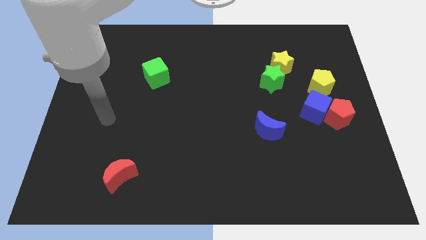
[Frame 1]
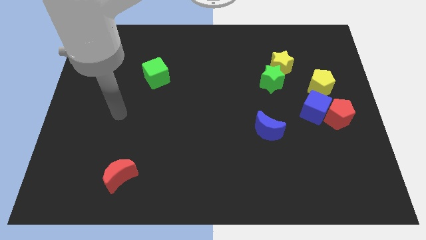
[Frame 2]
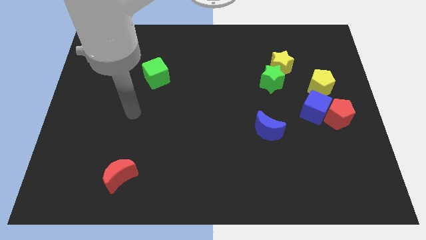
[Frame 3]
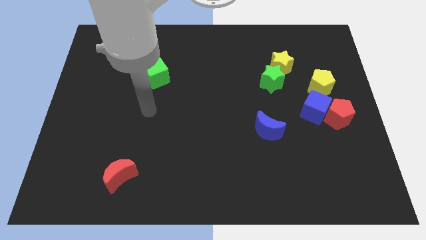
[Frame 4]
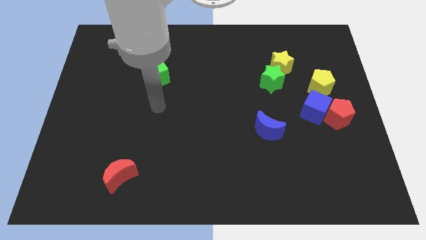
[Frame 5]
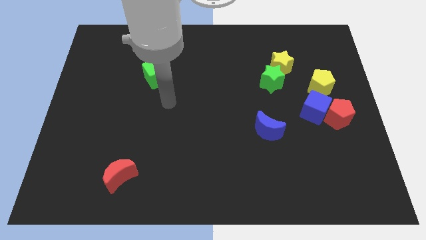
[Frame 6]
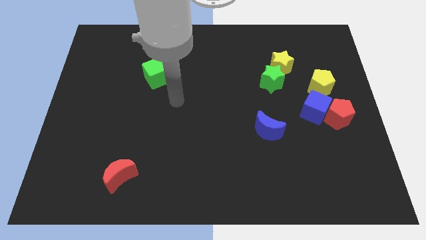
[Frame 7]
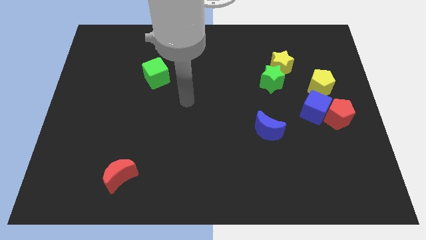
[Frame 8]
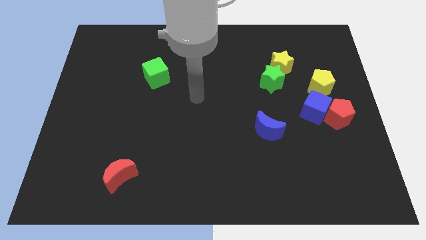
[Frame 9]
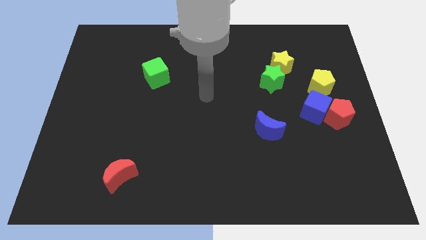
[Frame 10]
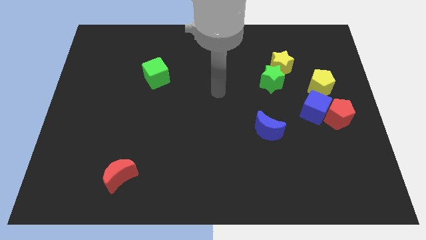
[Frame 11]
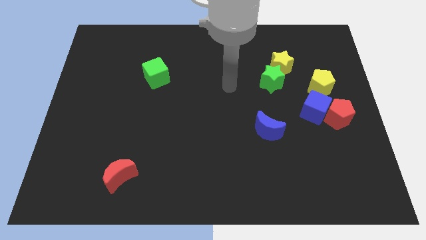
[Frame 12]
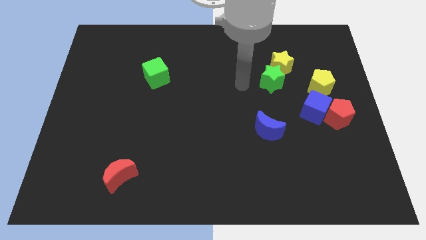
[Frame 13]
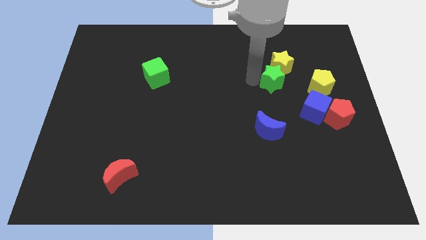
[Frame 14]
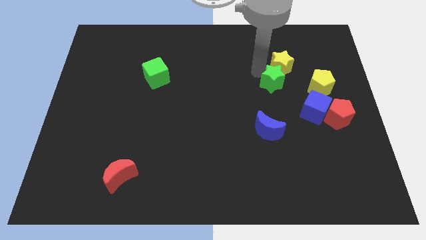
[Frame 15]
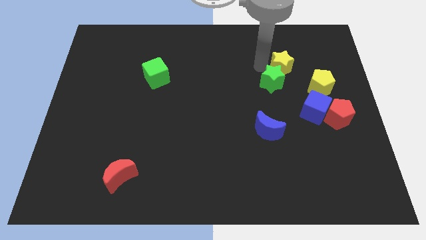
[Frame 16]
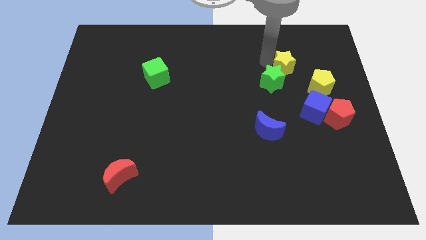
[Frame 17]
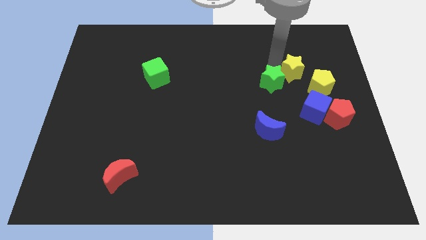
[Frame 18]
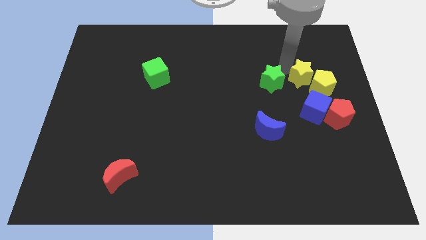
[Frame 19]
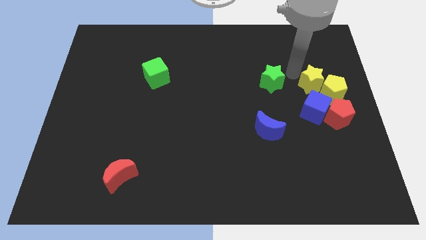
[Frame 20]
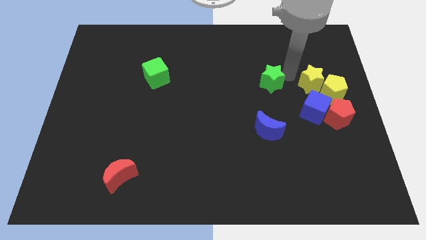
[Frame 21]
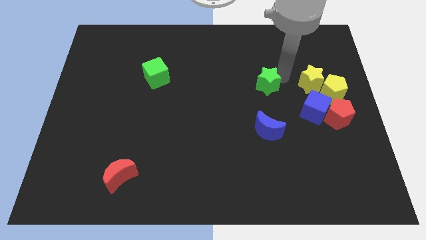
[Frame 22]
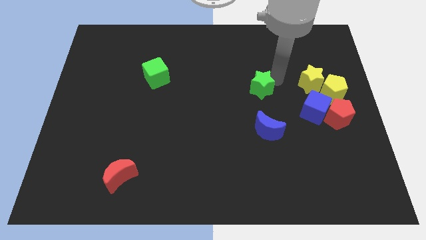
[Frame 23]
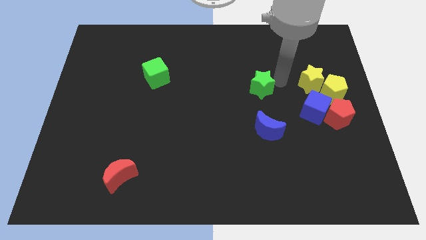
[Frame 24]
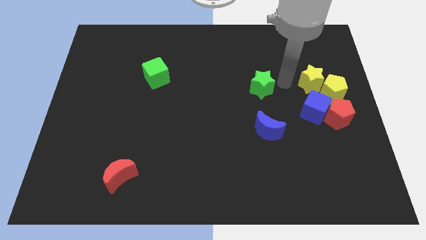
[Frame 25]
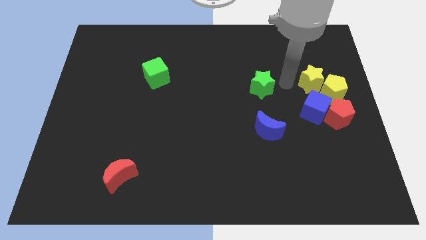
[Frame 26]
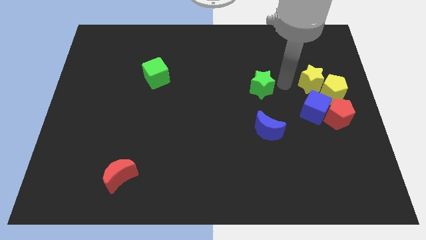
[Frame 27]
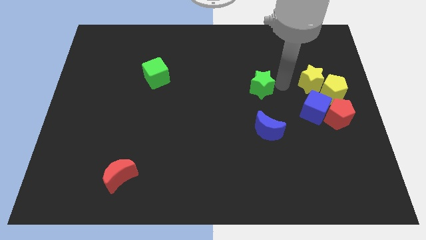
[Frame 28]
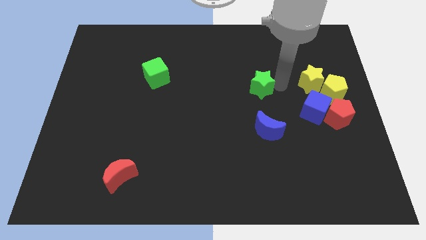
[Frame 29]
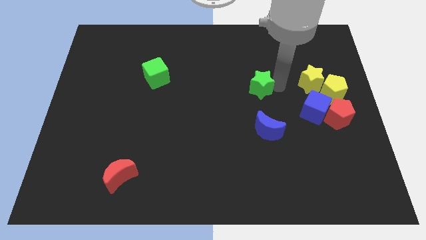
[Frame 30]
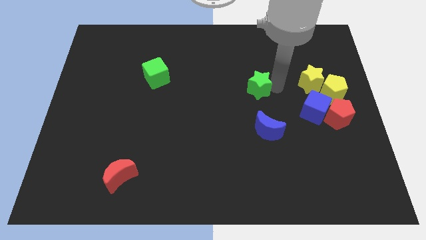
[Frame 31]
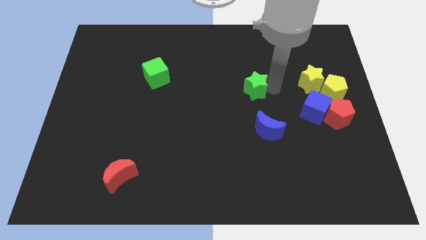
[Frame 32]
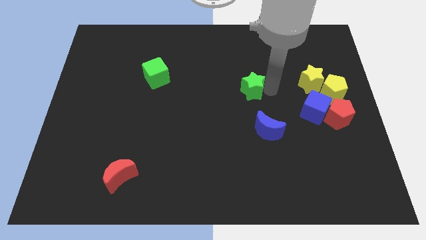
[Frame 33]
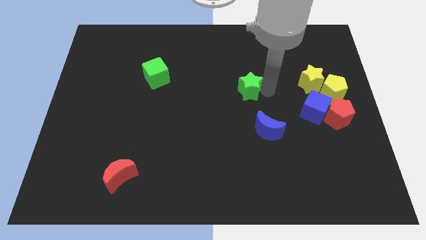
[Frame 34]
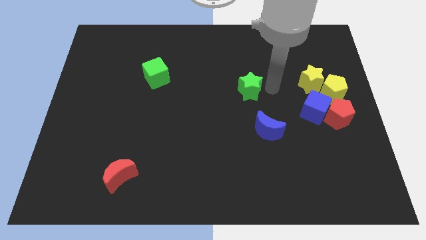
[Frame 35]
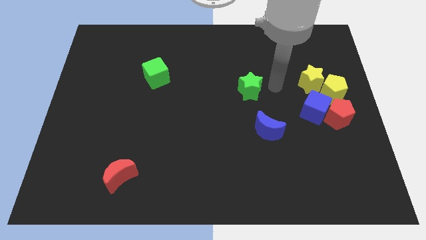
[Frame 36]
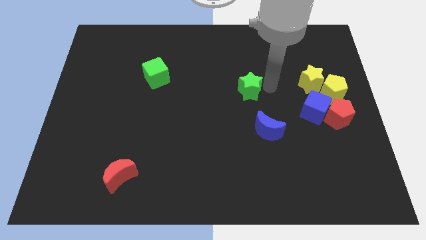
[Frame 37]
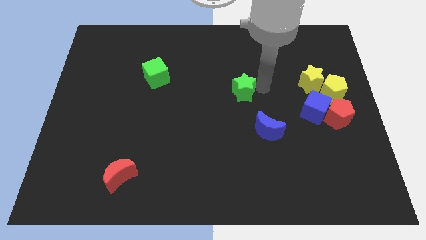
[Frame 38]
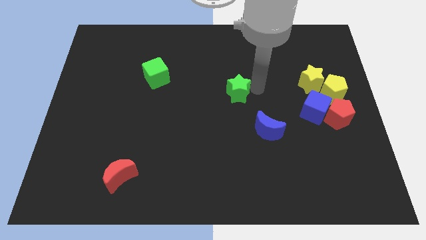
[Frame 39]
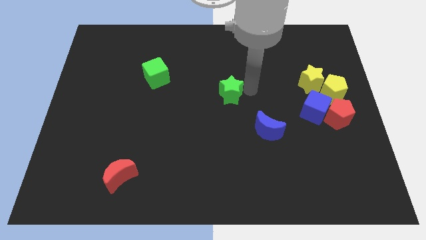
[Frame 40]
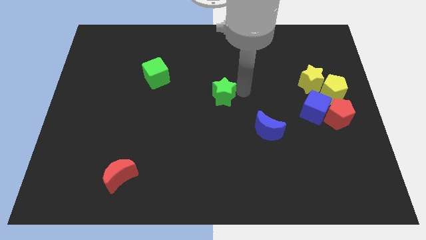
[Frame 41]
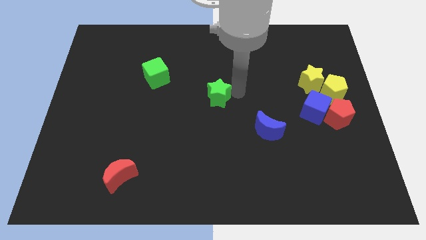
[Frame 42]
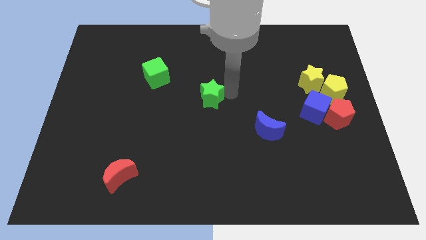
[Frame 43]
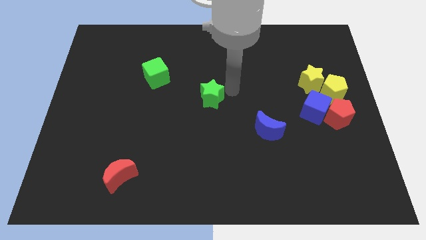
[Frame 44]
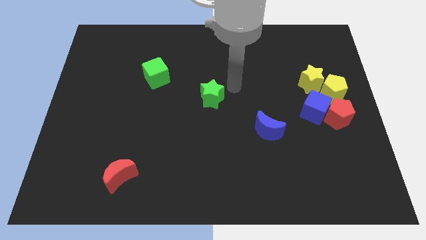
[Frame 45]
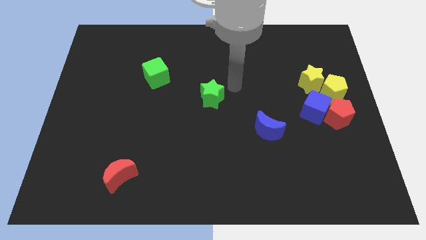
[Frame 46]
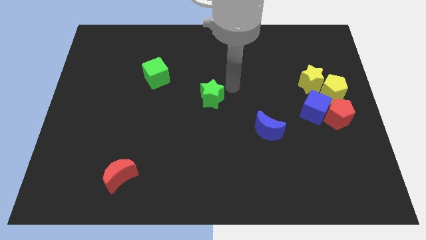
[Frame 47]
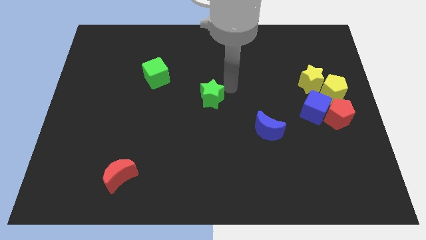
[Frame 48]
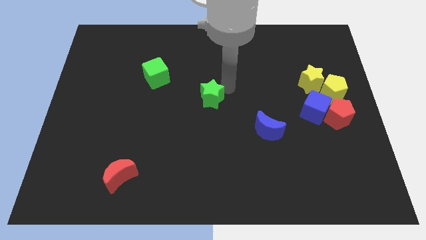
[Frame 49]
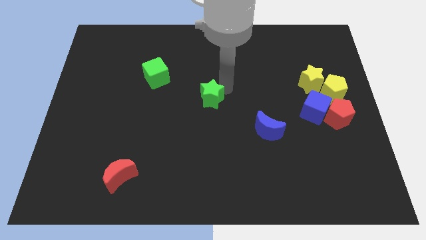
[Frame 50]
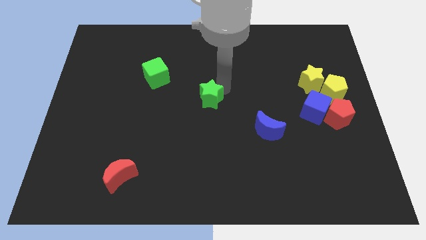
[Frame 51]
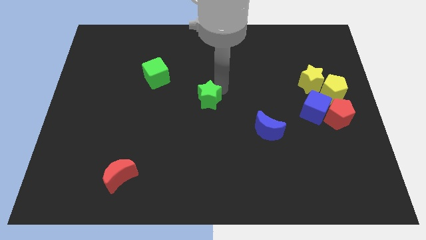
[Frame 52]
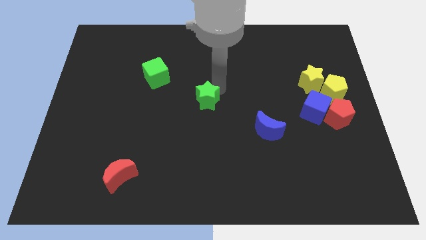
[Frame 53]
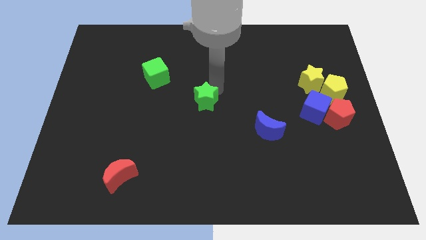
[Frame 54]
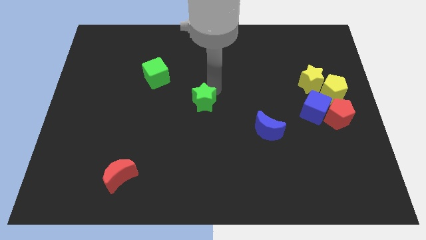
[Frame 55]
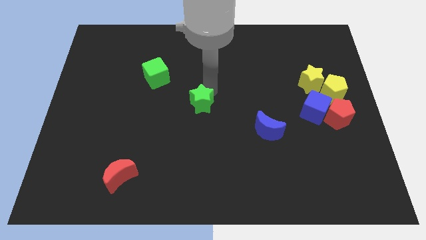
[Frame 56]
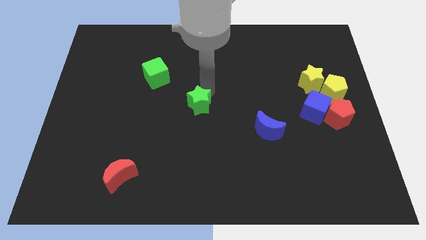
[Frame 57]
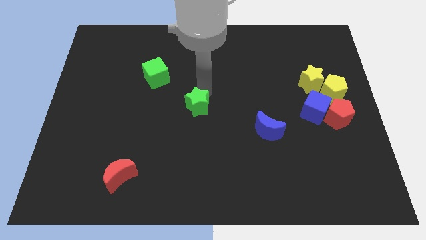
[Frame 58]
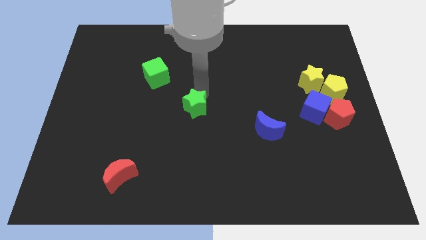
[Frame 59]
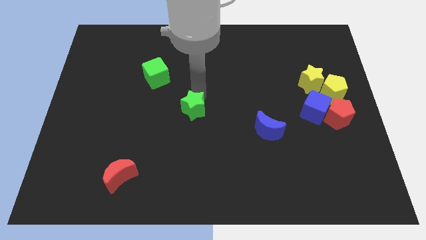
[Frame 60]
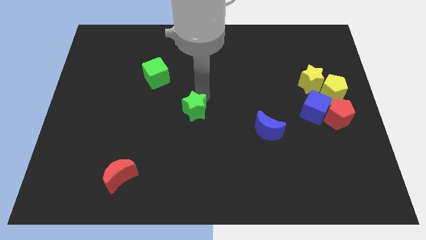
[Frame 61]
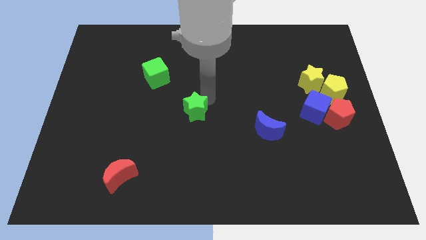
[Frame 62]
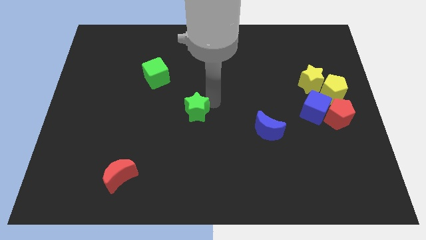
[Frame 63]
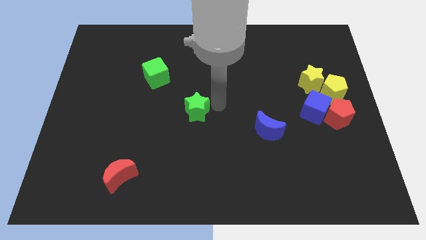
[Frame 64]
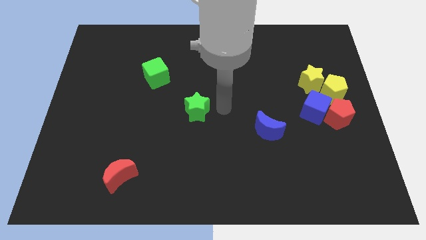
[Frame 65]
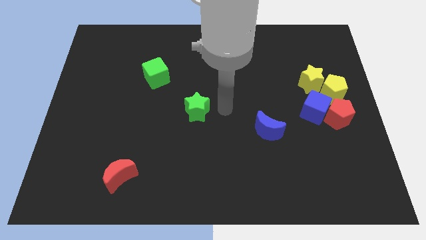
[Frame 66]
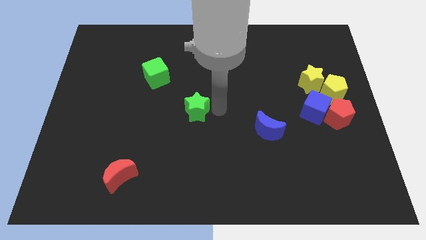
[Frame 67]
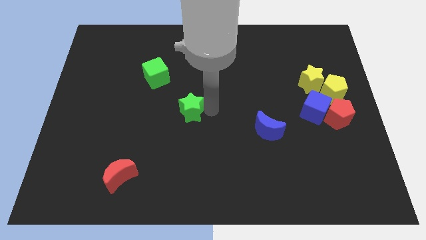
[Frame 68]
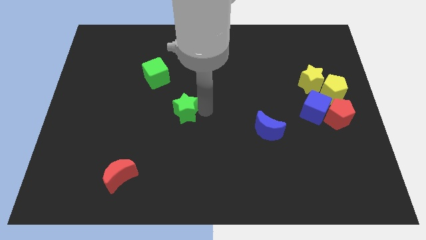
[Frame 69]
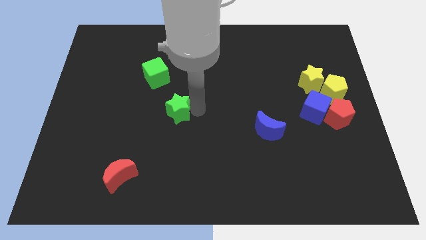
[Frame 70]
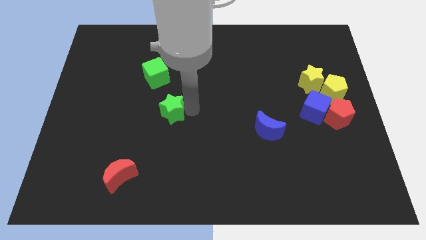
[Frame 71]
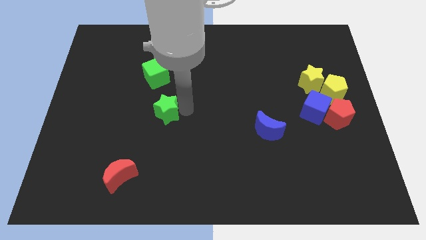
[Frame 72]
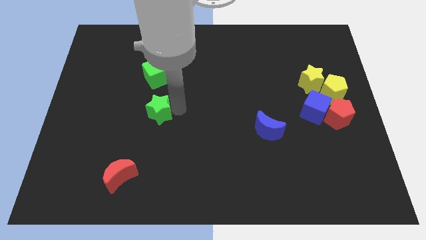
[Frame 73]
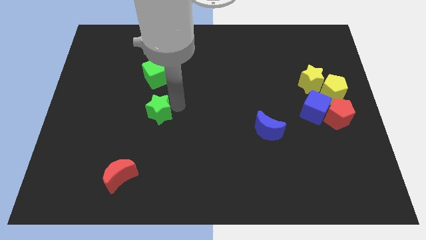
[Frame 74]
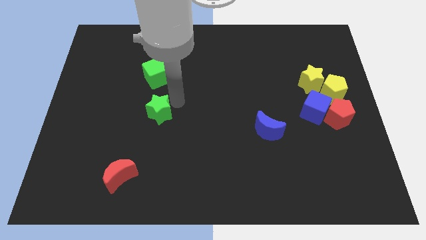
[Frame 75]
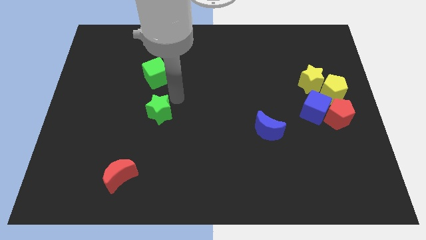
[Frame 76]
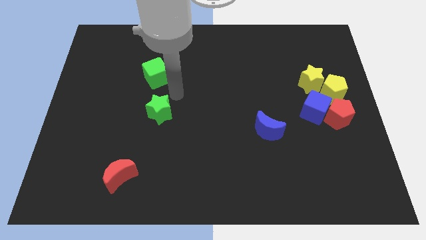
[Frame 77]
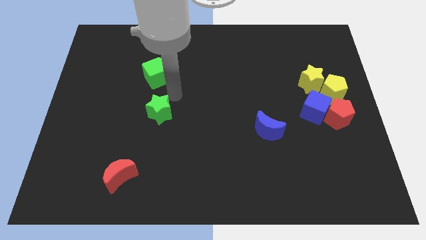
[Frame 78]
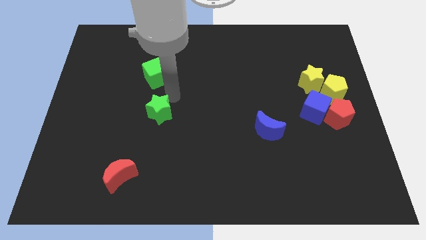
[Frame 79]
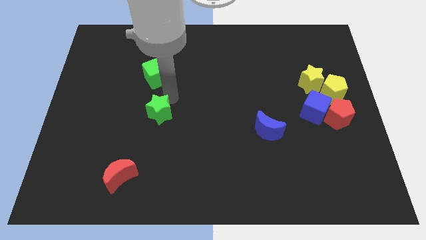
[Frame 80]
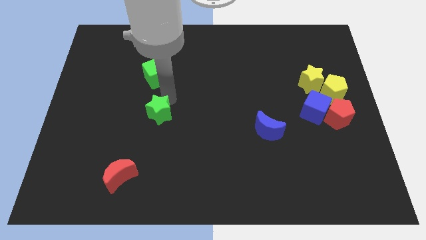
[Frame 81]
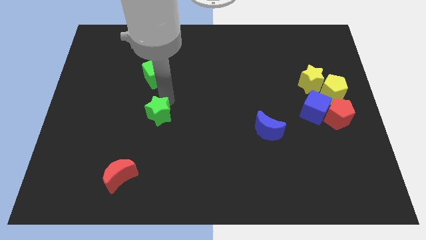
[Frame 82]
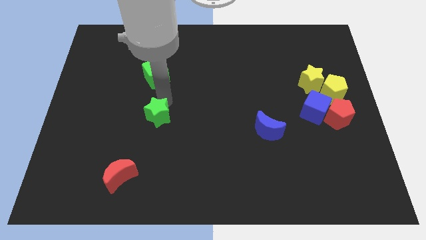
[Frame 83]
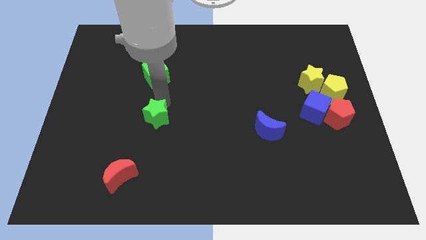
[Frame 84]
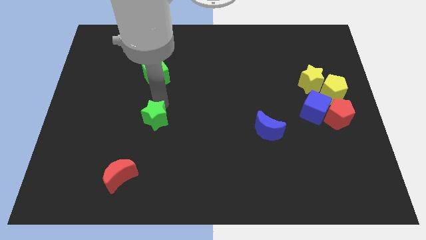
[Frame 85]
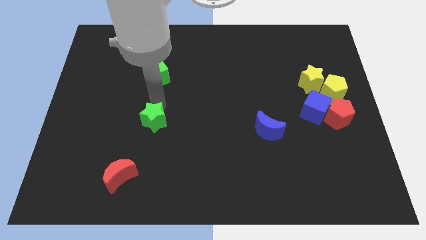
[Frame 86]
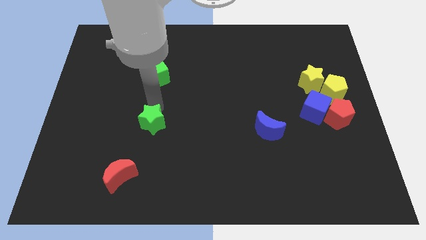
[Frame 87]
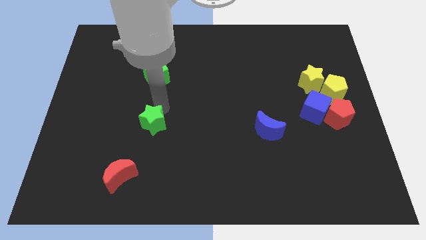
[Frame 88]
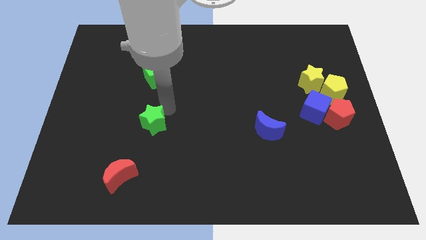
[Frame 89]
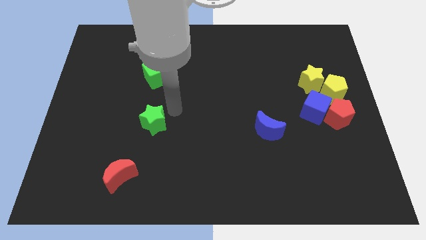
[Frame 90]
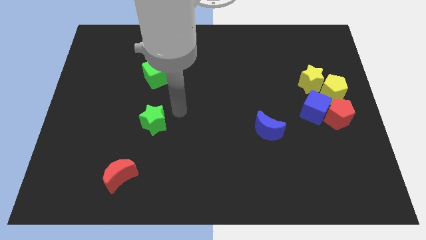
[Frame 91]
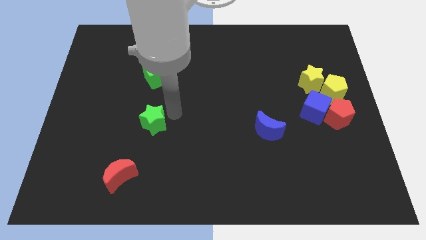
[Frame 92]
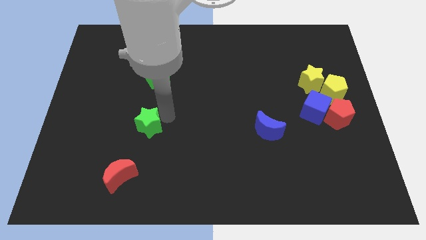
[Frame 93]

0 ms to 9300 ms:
move the green star to the top side of the red moon
